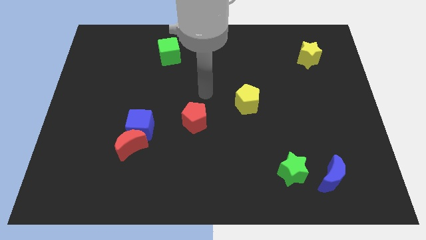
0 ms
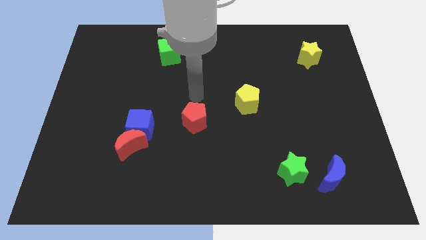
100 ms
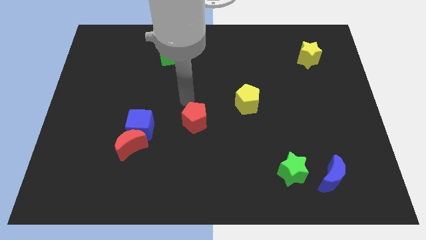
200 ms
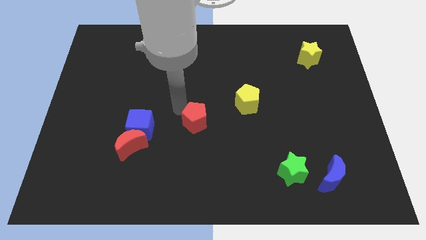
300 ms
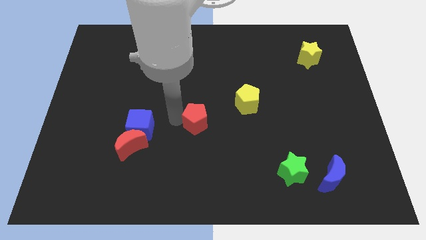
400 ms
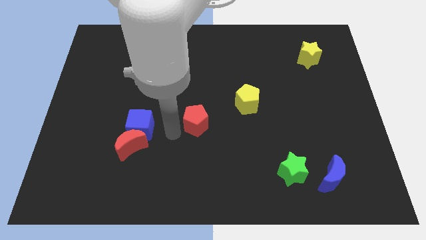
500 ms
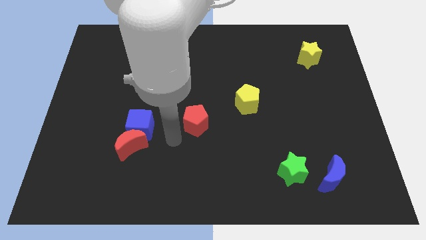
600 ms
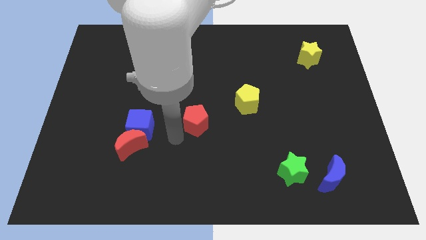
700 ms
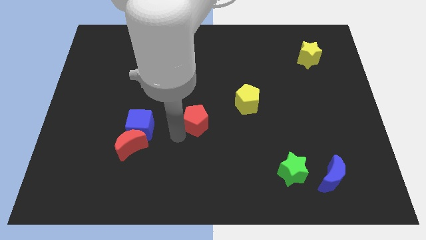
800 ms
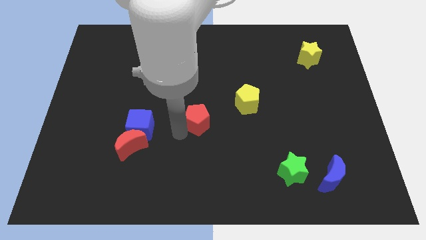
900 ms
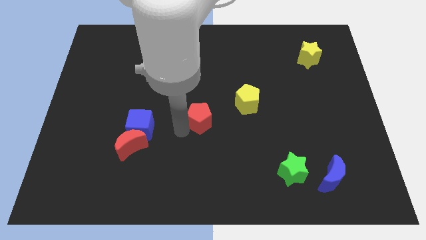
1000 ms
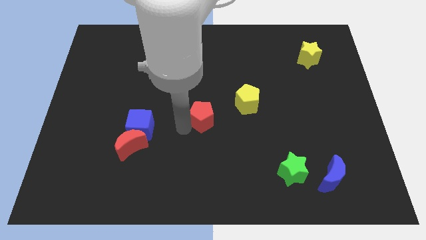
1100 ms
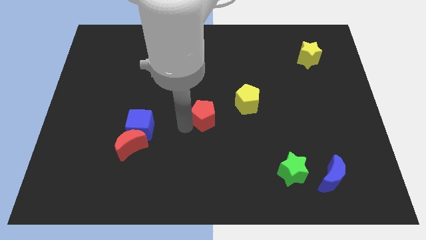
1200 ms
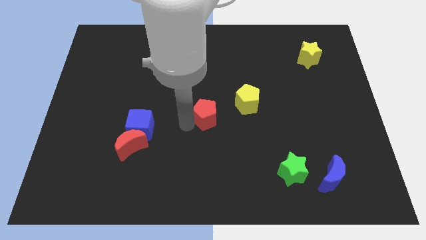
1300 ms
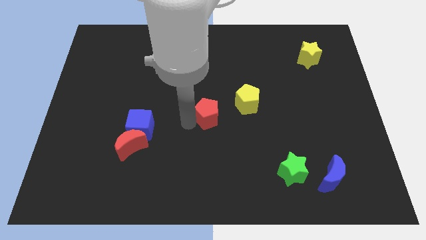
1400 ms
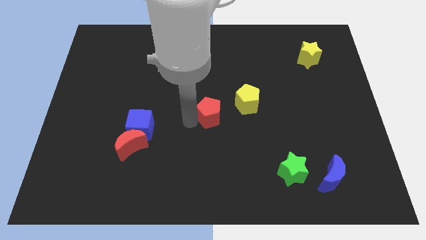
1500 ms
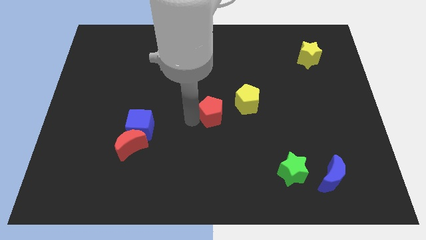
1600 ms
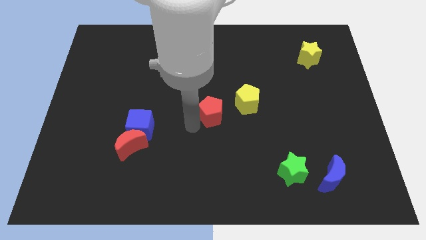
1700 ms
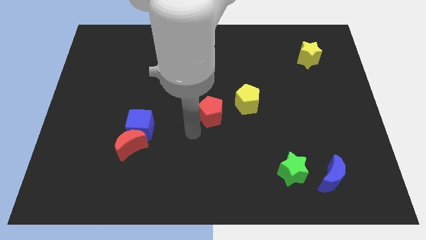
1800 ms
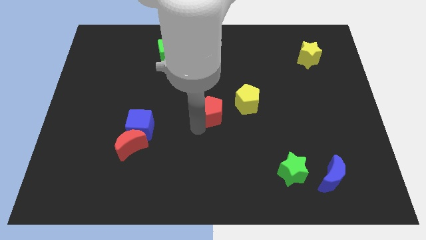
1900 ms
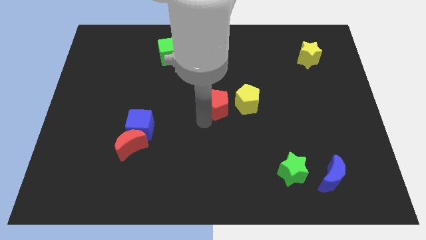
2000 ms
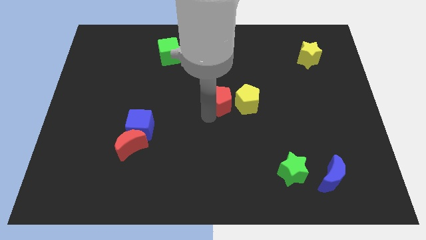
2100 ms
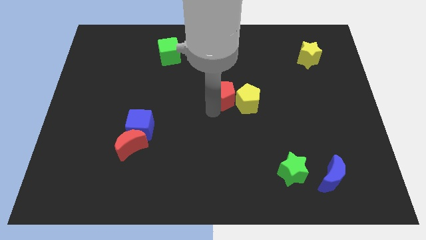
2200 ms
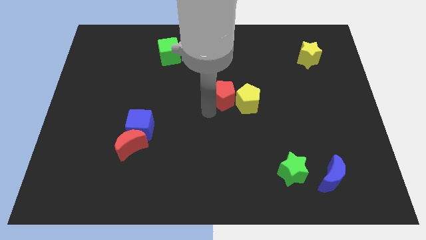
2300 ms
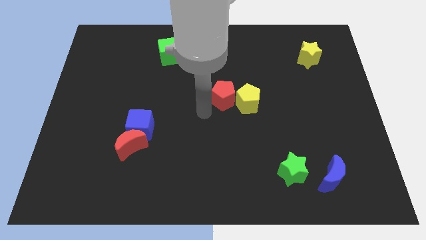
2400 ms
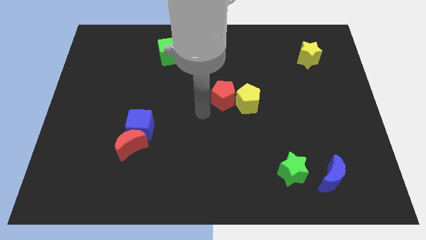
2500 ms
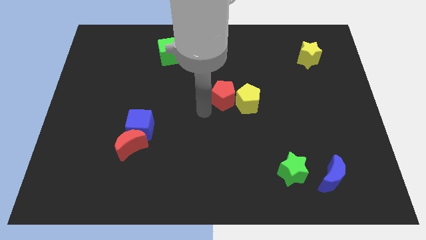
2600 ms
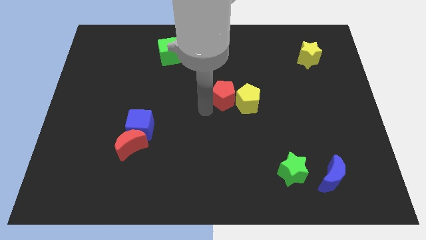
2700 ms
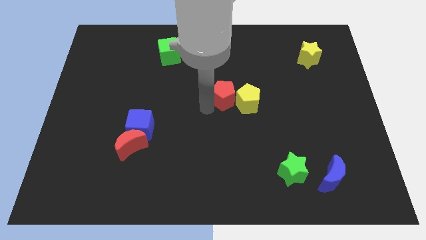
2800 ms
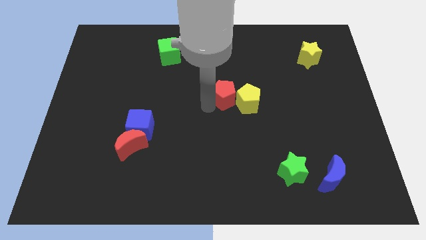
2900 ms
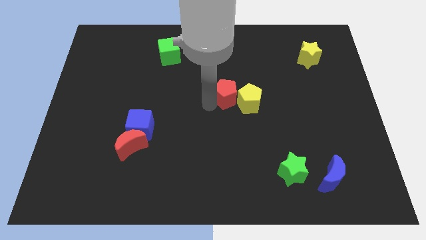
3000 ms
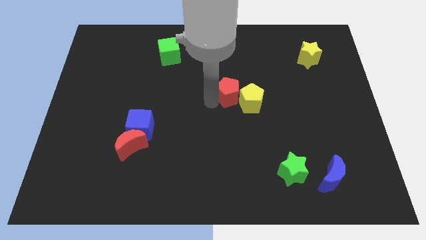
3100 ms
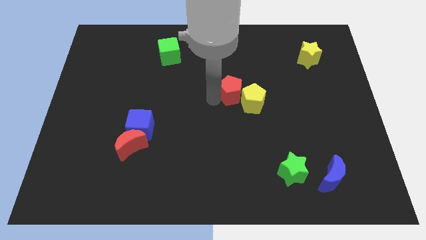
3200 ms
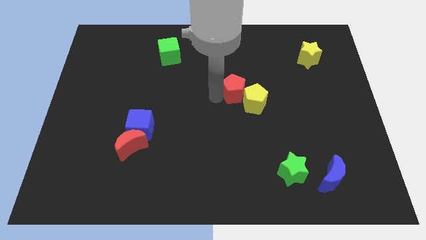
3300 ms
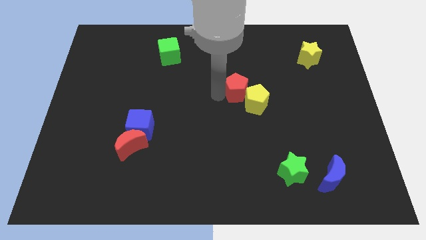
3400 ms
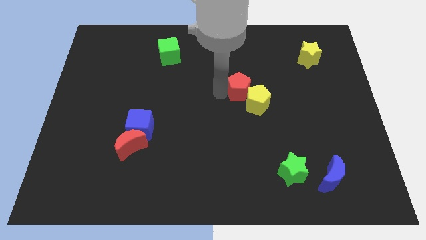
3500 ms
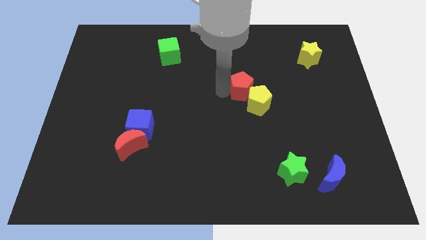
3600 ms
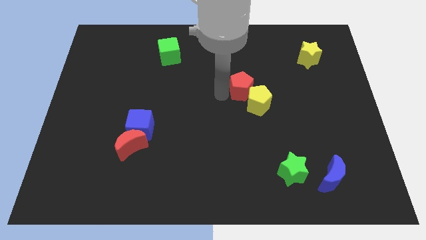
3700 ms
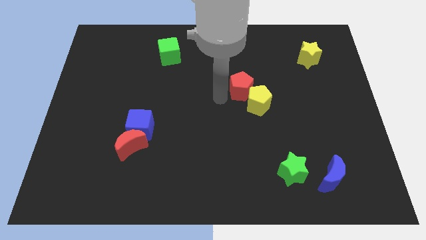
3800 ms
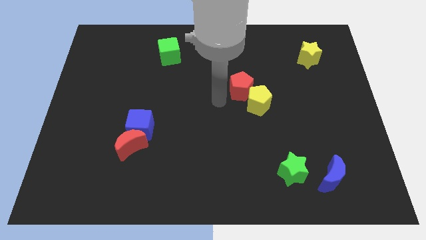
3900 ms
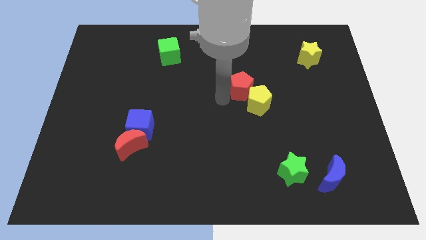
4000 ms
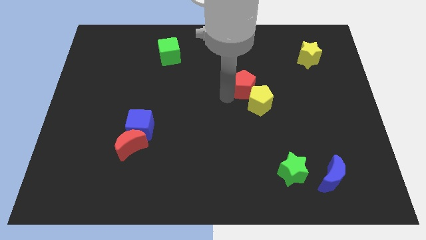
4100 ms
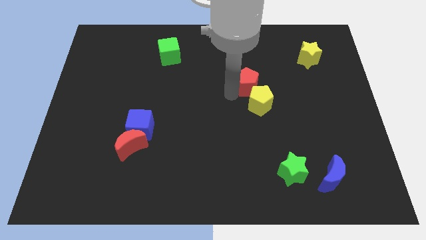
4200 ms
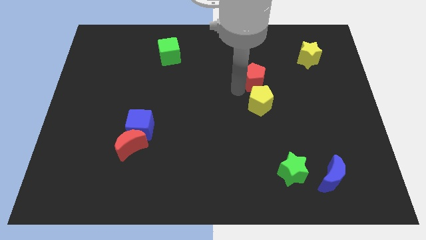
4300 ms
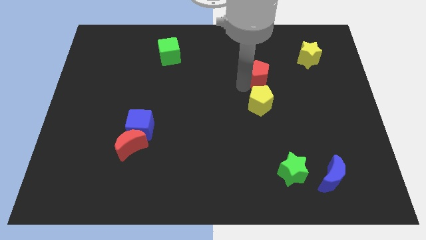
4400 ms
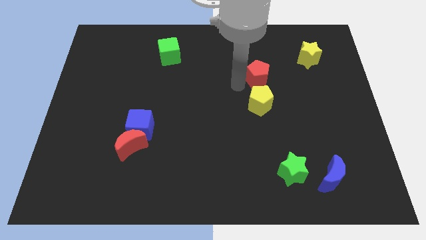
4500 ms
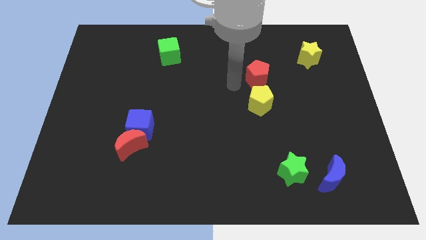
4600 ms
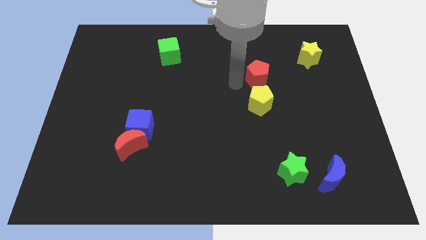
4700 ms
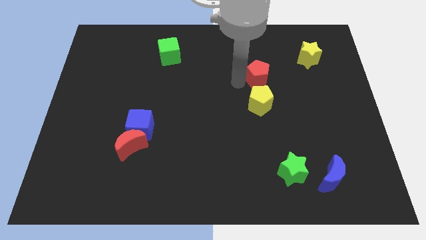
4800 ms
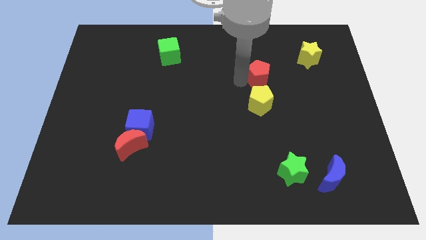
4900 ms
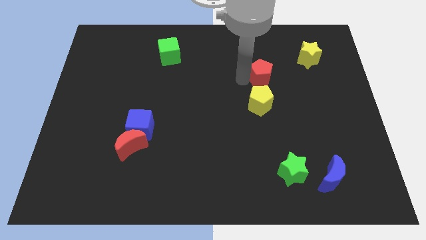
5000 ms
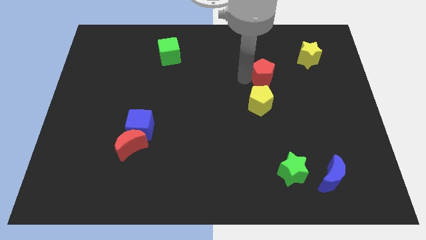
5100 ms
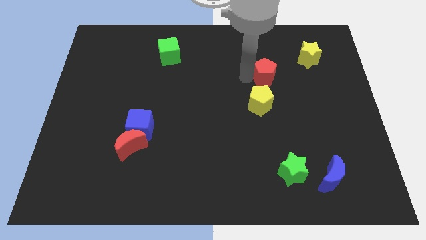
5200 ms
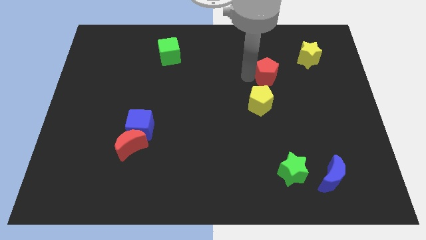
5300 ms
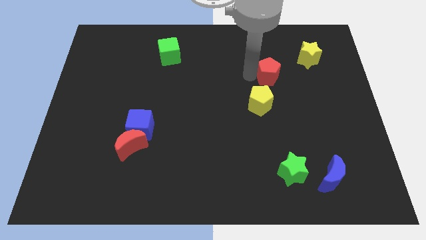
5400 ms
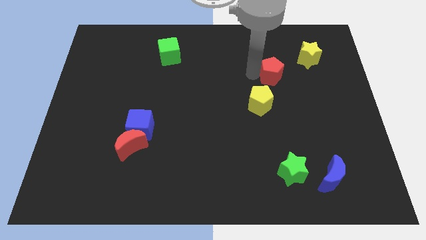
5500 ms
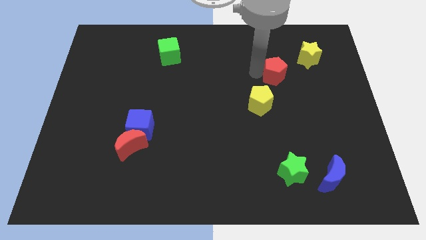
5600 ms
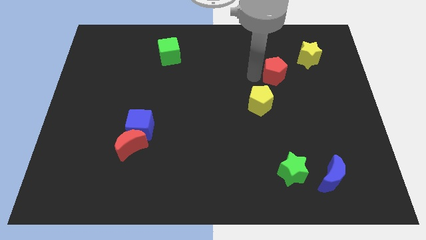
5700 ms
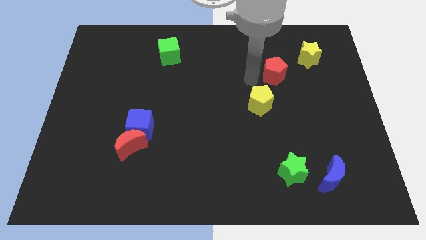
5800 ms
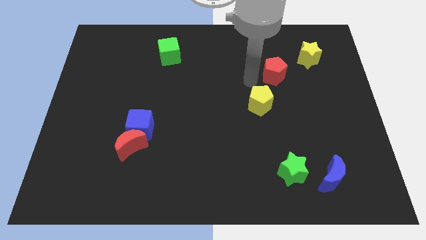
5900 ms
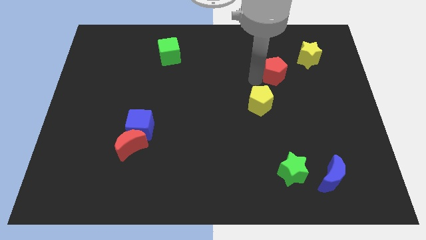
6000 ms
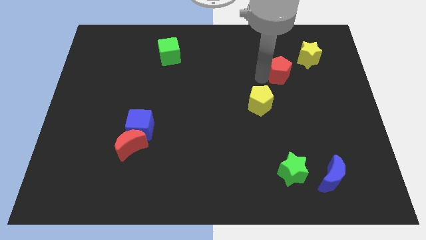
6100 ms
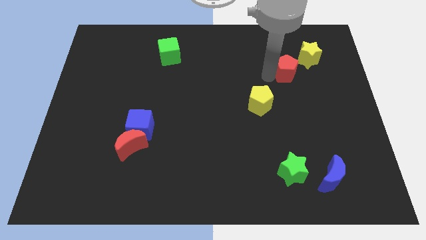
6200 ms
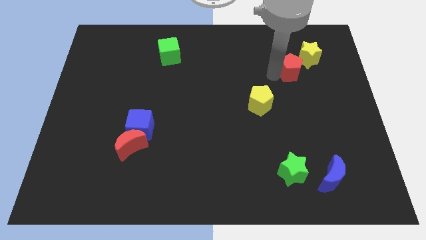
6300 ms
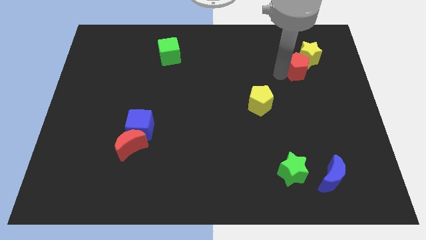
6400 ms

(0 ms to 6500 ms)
put the red pentagon towards the yellow star

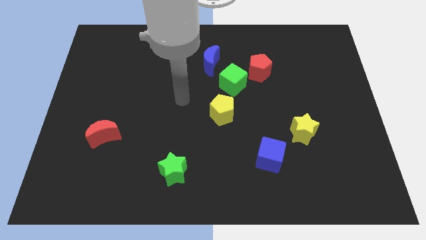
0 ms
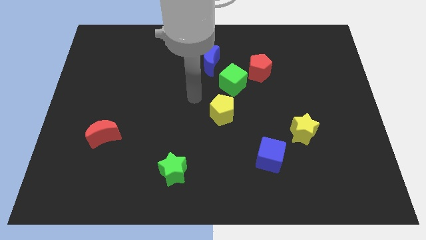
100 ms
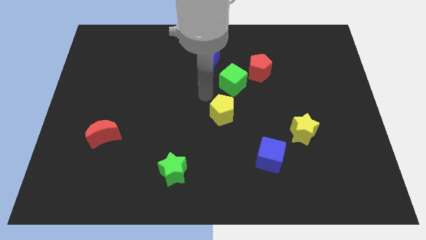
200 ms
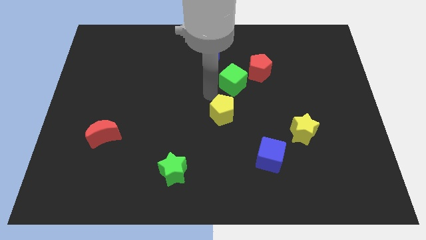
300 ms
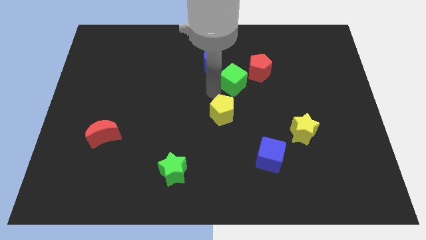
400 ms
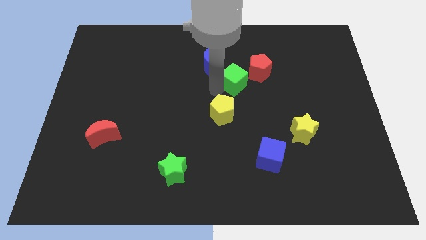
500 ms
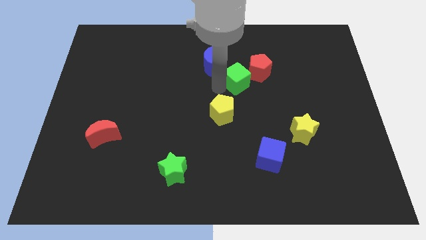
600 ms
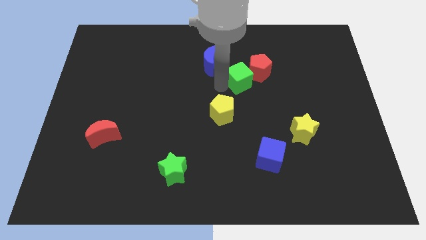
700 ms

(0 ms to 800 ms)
push the green cube next to the red pentagon
